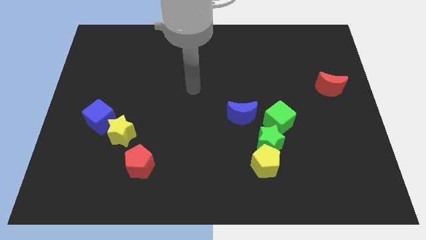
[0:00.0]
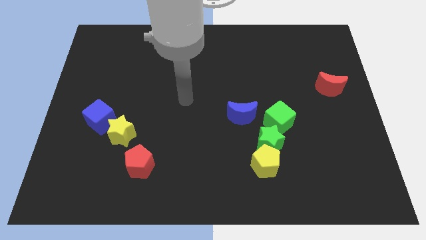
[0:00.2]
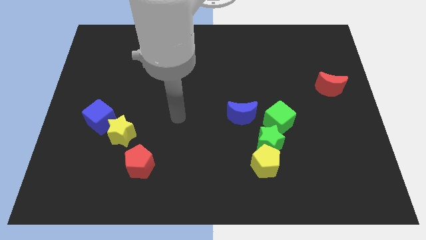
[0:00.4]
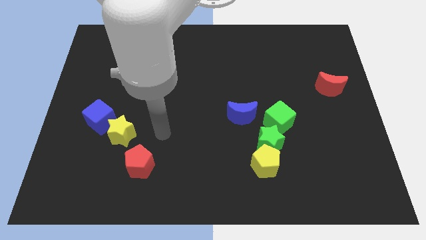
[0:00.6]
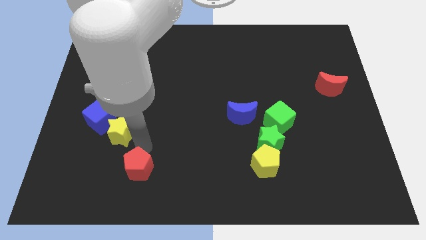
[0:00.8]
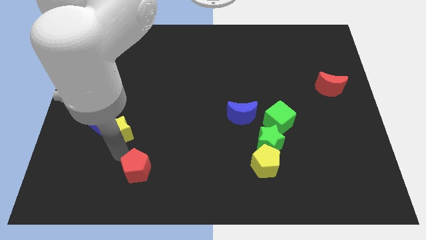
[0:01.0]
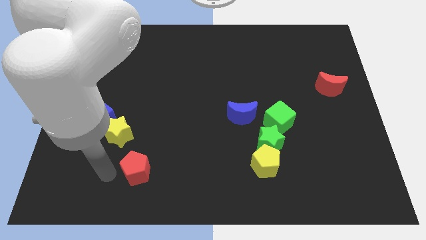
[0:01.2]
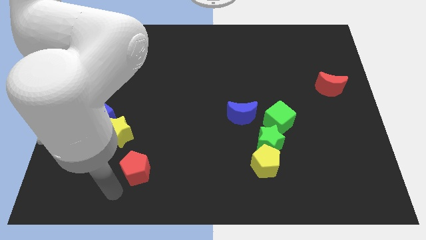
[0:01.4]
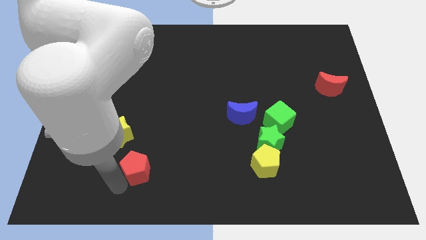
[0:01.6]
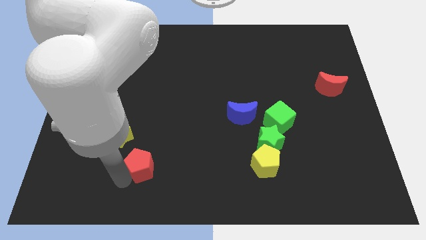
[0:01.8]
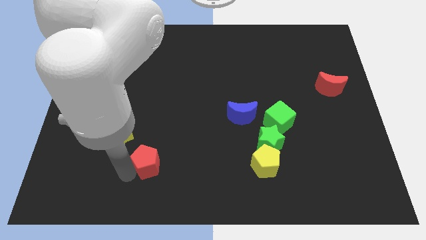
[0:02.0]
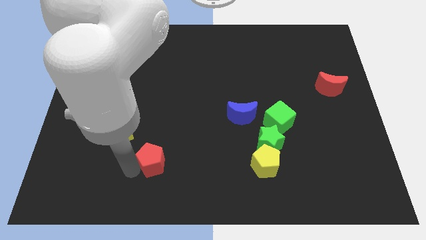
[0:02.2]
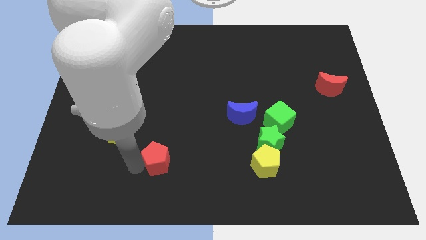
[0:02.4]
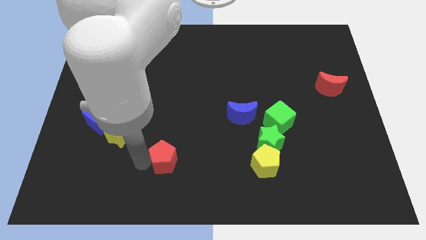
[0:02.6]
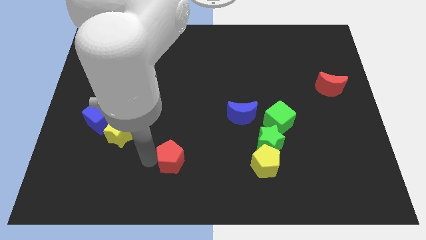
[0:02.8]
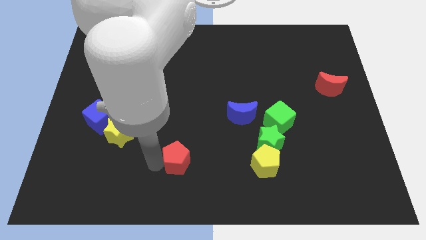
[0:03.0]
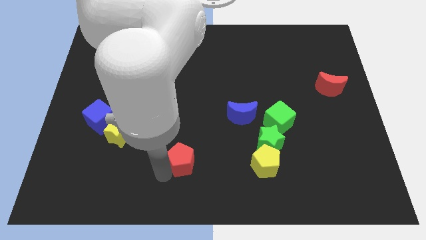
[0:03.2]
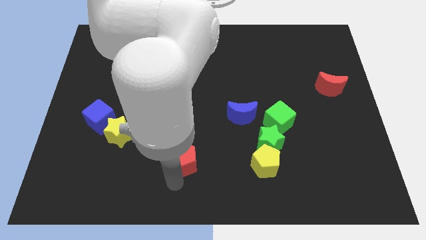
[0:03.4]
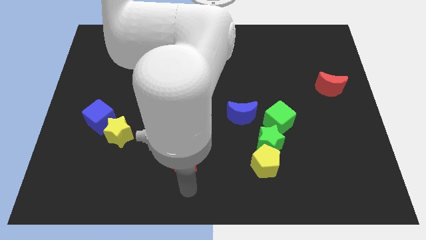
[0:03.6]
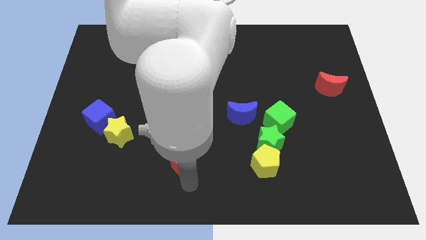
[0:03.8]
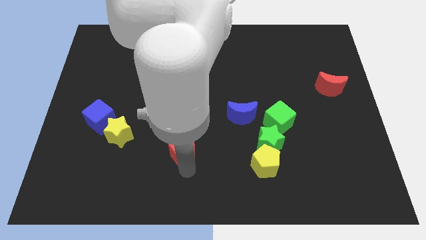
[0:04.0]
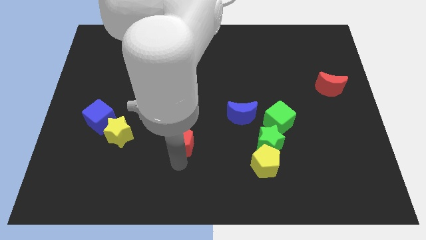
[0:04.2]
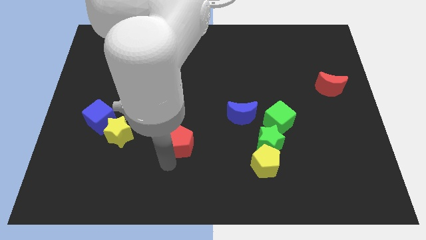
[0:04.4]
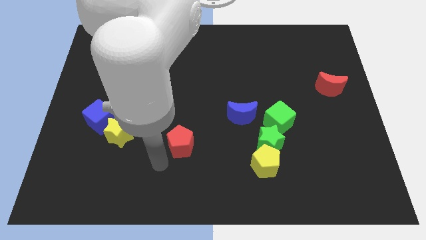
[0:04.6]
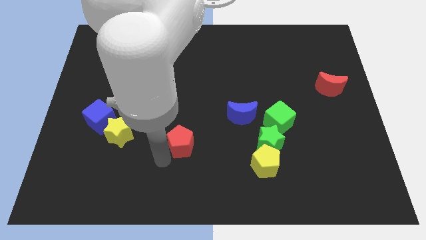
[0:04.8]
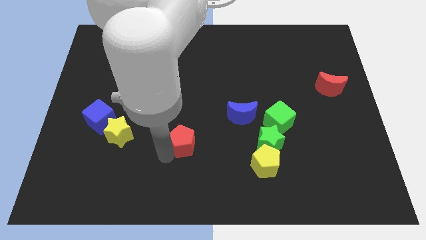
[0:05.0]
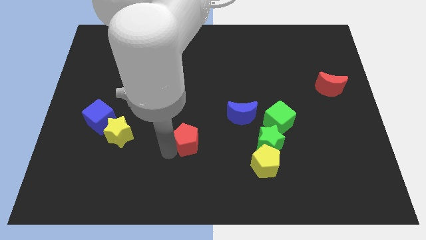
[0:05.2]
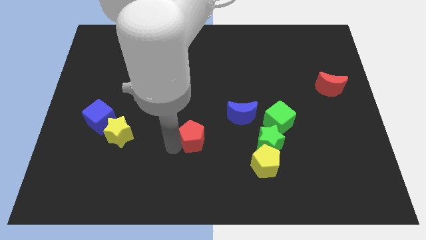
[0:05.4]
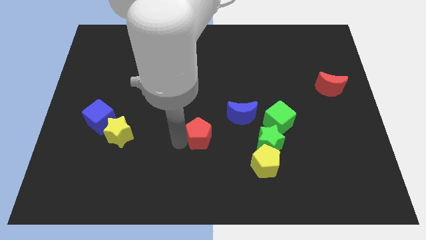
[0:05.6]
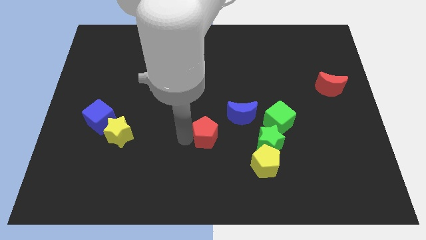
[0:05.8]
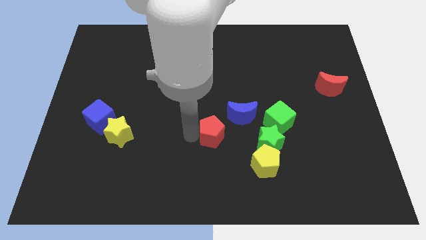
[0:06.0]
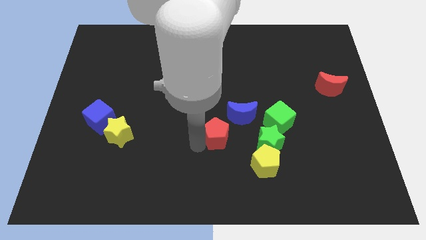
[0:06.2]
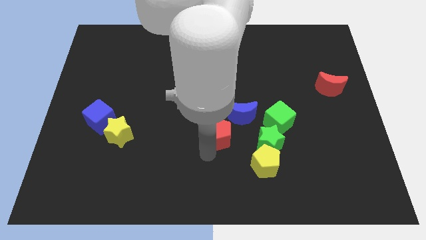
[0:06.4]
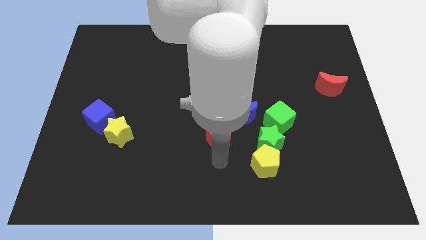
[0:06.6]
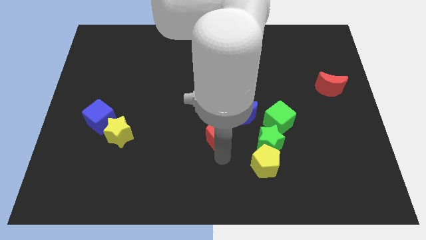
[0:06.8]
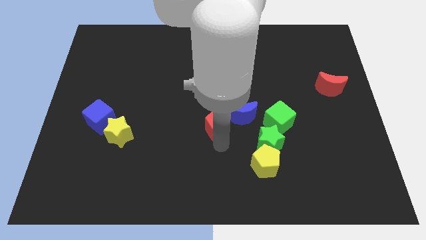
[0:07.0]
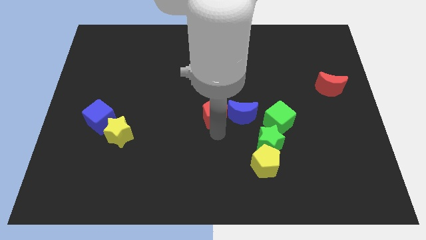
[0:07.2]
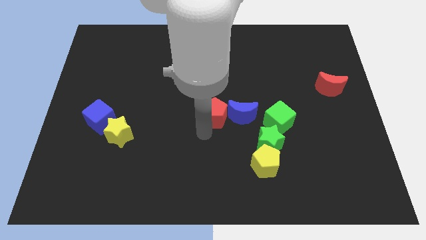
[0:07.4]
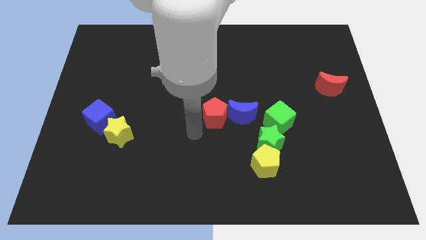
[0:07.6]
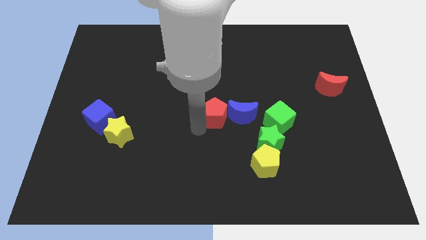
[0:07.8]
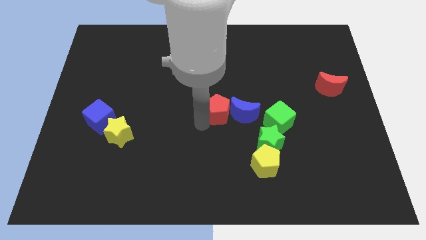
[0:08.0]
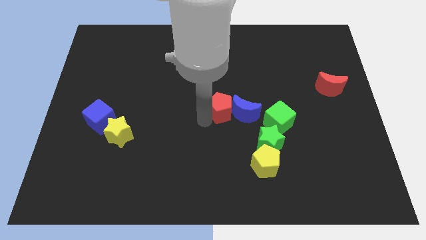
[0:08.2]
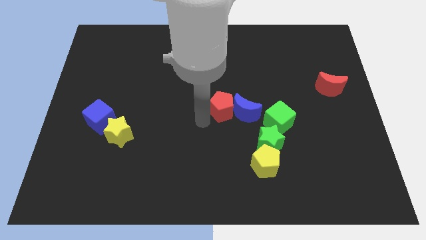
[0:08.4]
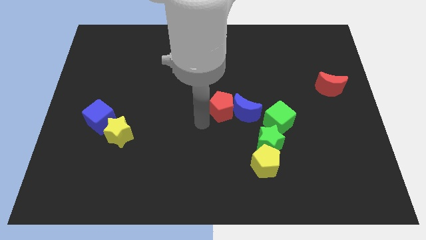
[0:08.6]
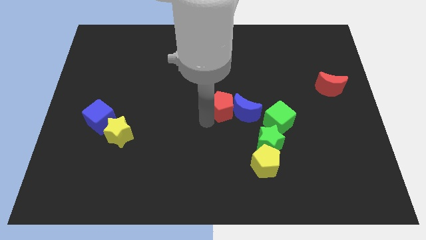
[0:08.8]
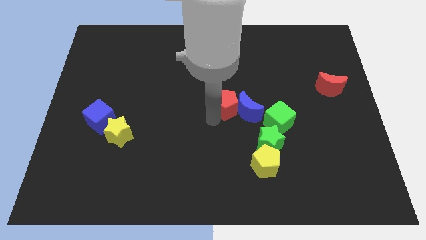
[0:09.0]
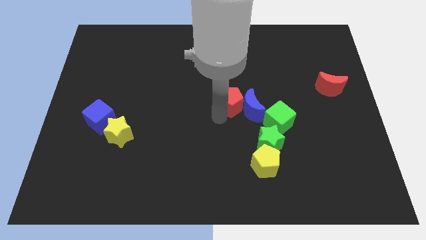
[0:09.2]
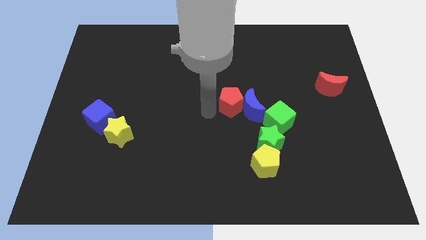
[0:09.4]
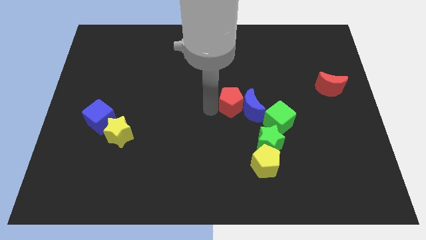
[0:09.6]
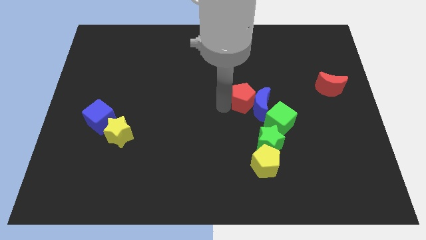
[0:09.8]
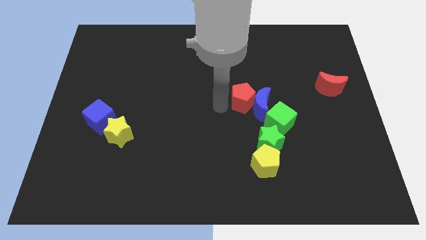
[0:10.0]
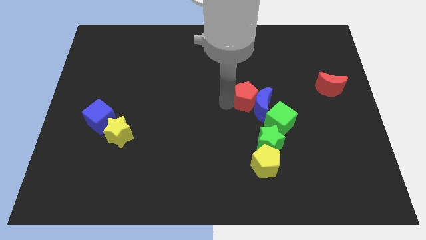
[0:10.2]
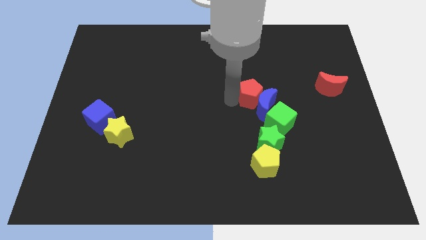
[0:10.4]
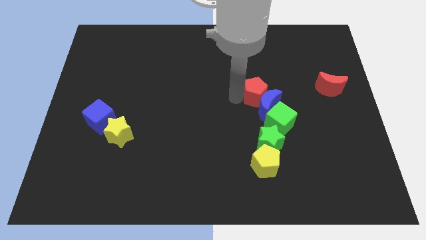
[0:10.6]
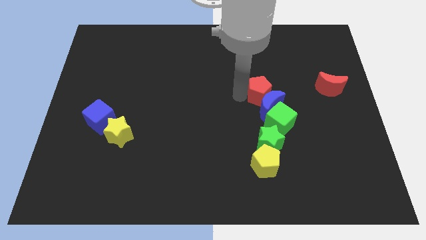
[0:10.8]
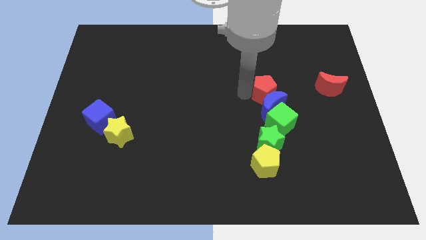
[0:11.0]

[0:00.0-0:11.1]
push the red pentagon left of the red moon

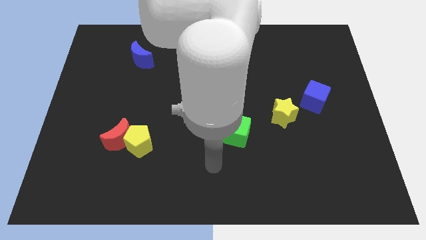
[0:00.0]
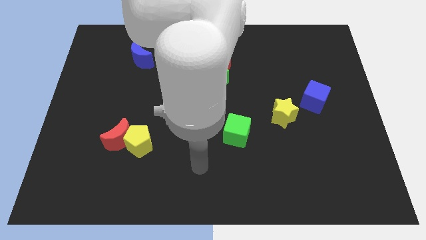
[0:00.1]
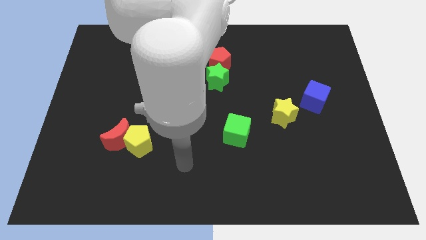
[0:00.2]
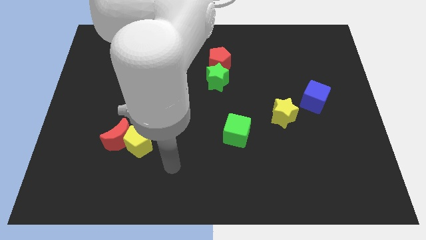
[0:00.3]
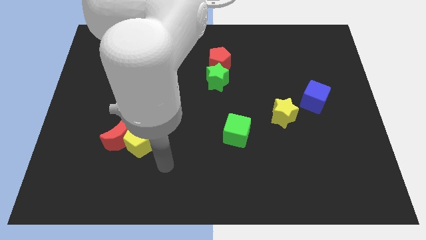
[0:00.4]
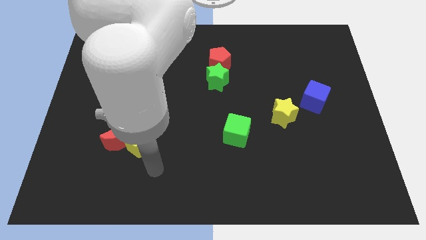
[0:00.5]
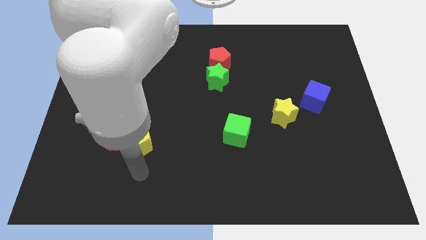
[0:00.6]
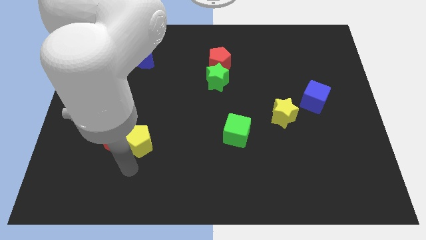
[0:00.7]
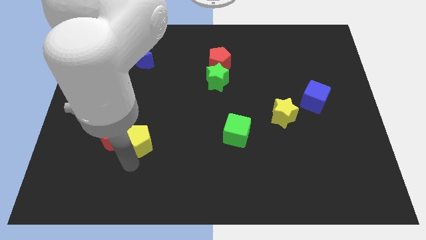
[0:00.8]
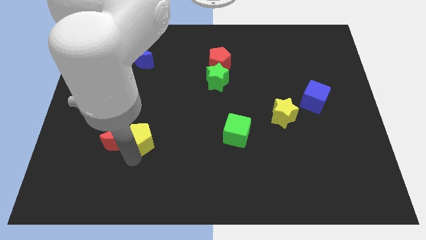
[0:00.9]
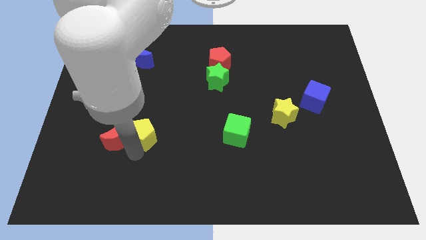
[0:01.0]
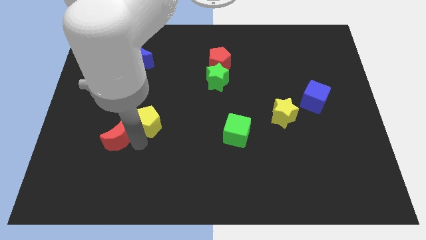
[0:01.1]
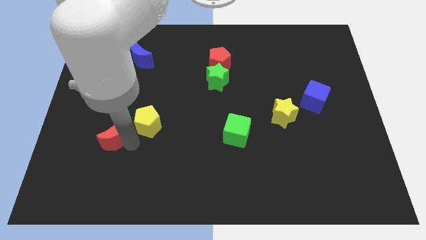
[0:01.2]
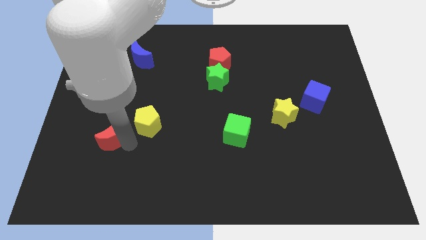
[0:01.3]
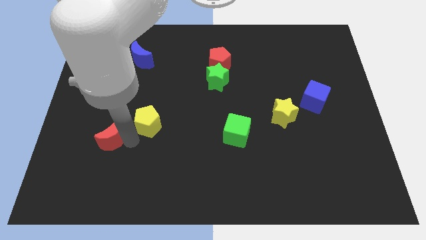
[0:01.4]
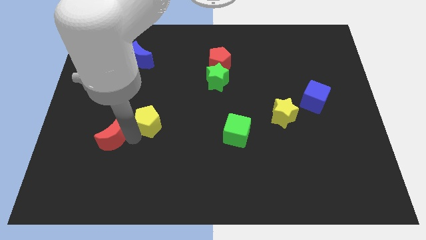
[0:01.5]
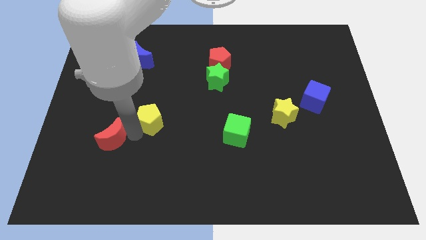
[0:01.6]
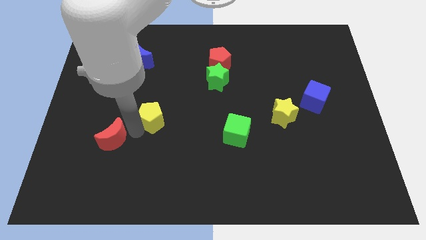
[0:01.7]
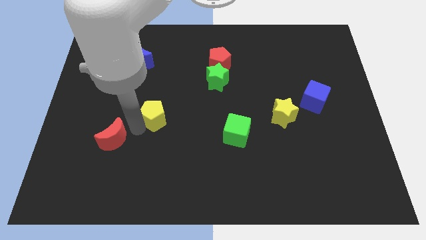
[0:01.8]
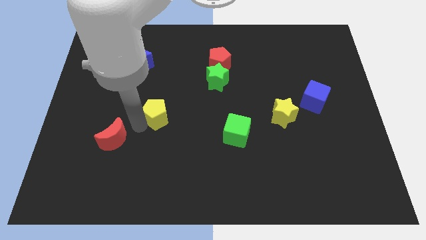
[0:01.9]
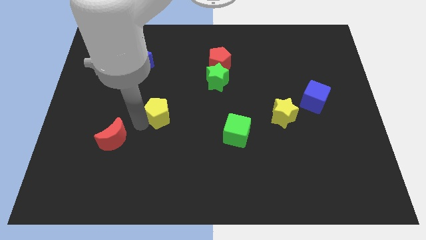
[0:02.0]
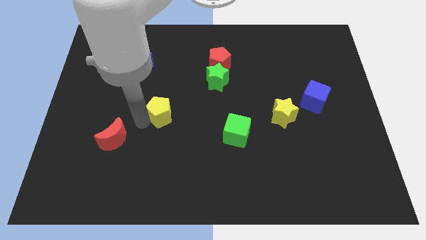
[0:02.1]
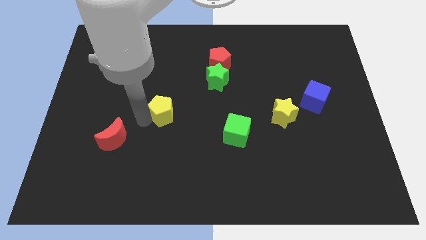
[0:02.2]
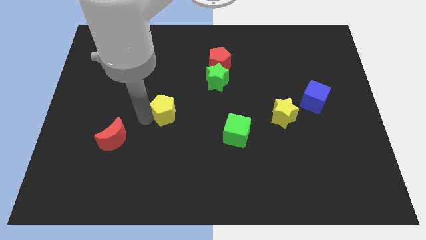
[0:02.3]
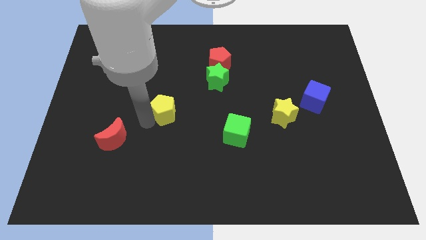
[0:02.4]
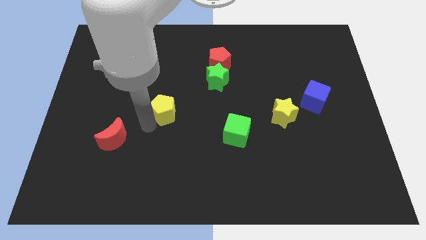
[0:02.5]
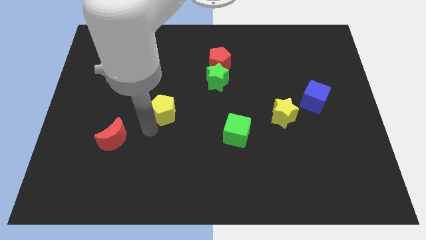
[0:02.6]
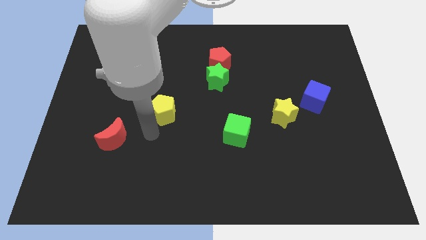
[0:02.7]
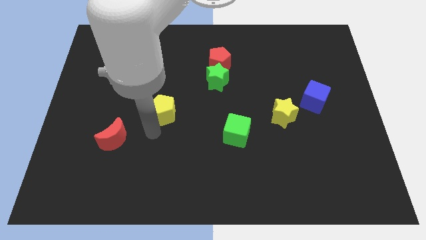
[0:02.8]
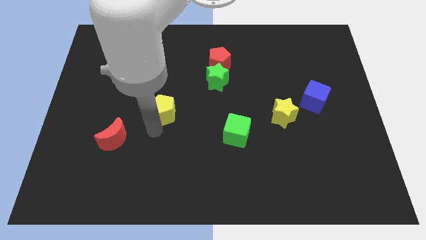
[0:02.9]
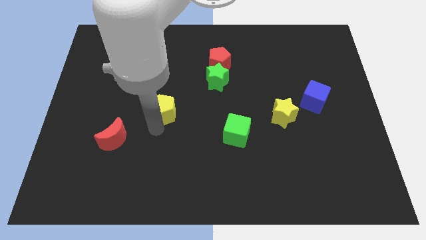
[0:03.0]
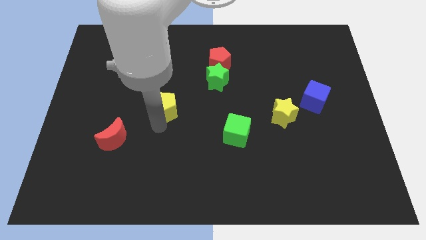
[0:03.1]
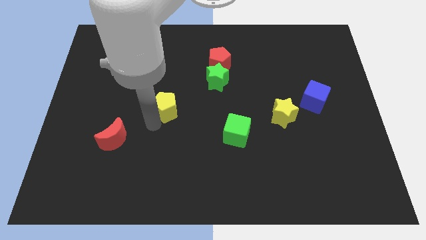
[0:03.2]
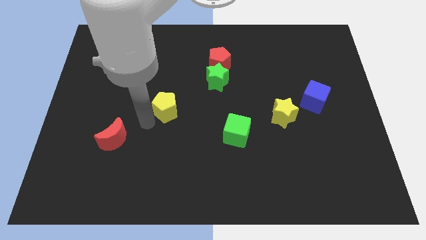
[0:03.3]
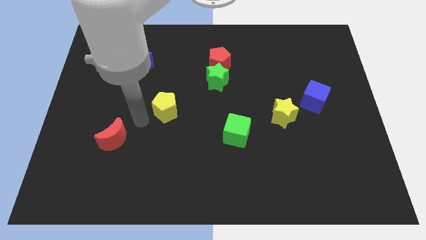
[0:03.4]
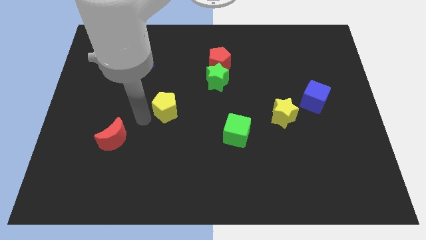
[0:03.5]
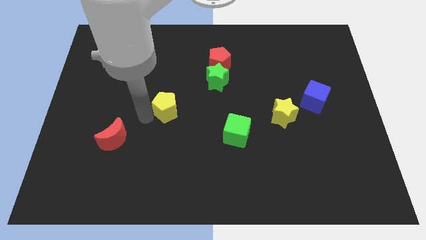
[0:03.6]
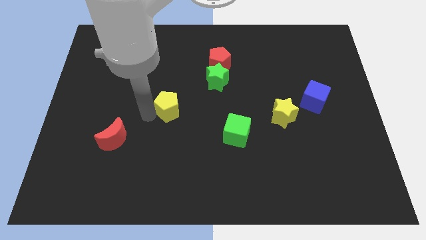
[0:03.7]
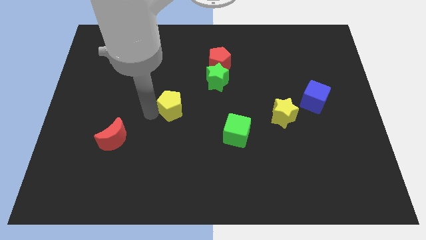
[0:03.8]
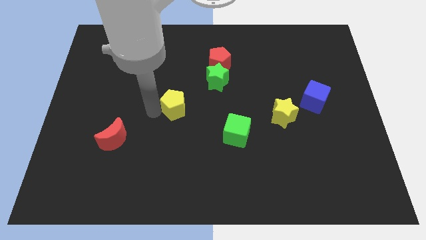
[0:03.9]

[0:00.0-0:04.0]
slide the yellow pentagon diagonally down and to the left of the green star
